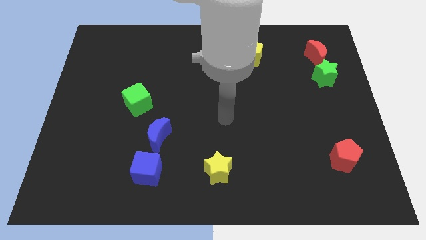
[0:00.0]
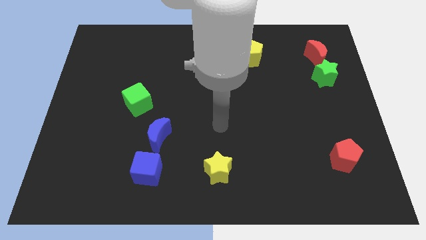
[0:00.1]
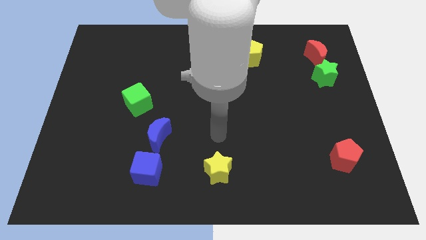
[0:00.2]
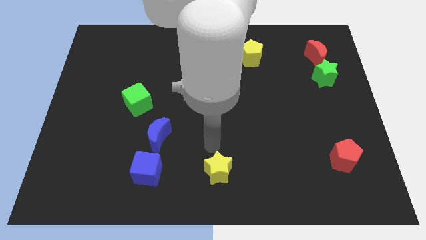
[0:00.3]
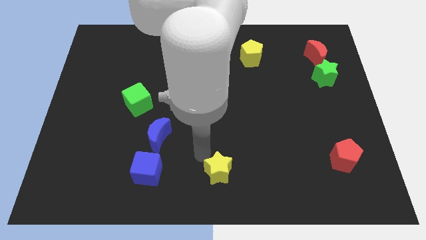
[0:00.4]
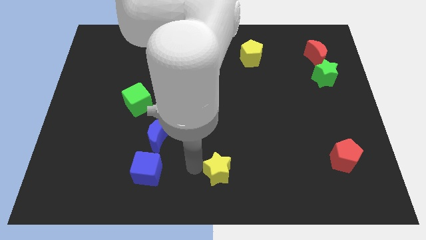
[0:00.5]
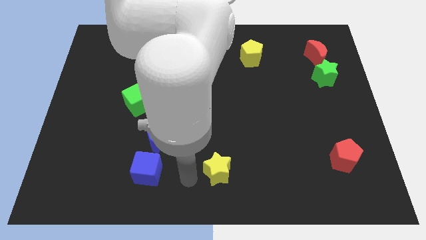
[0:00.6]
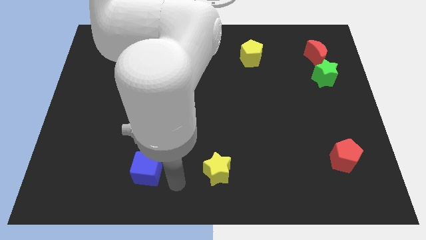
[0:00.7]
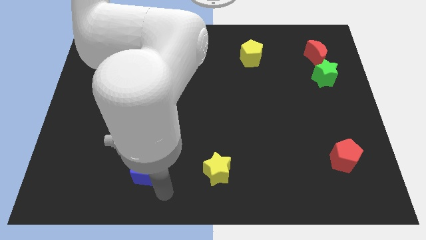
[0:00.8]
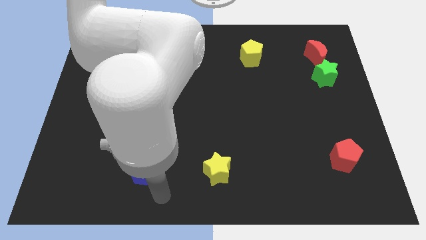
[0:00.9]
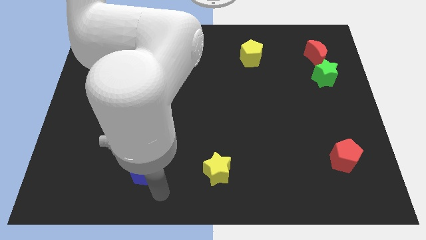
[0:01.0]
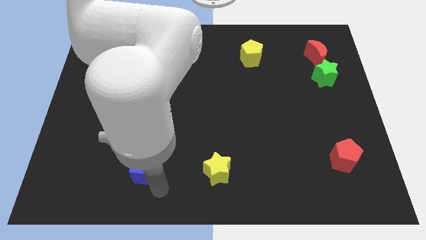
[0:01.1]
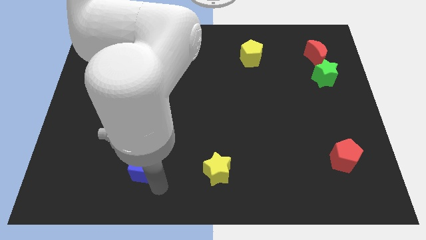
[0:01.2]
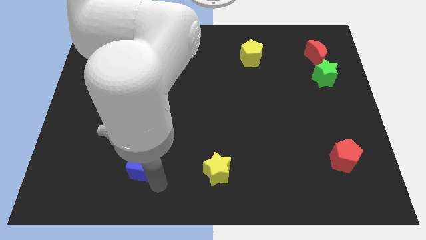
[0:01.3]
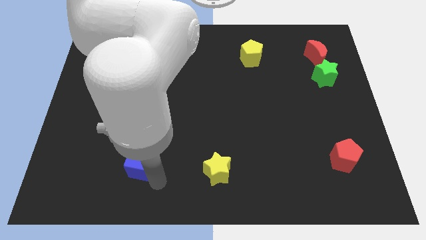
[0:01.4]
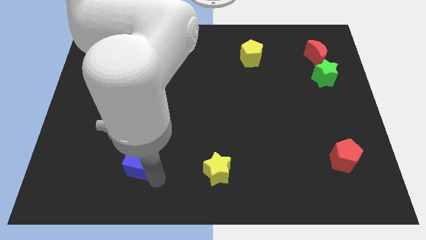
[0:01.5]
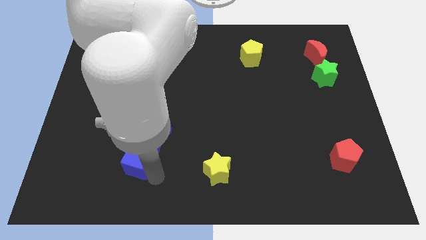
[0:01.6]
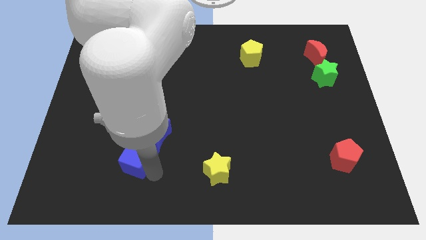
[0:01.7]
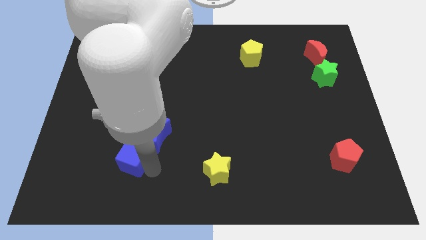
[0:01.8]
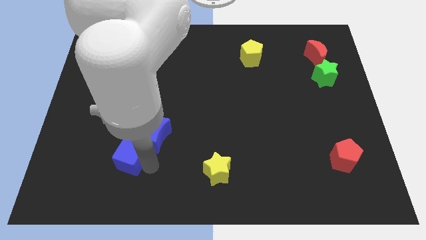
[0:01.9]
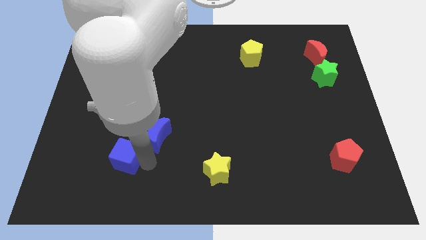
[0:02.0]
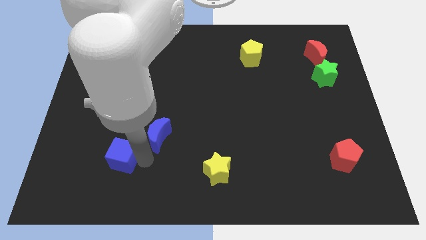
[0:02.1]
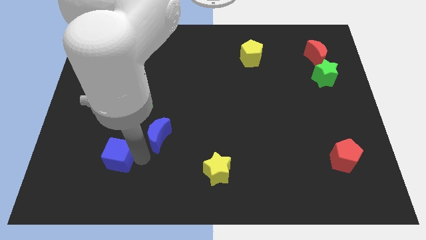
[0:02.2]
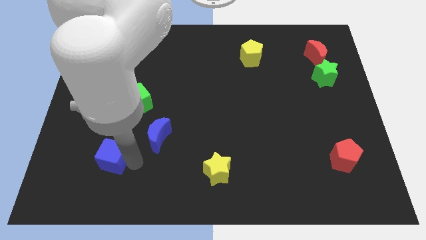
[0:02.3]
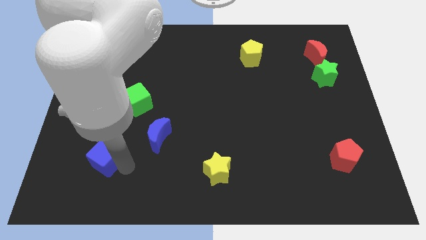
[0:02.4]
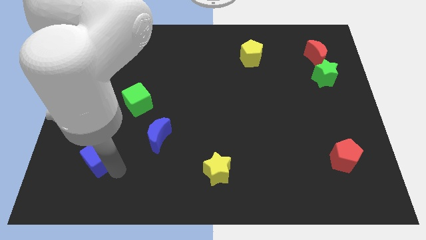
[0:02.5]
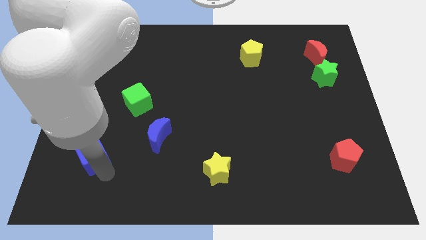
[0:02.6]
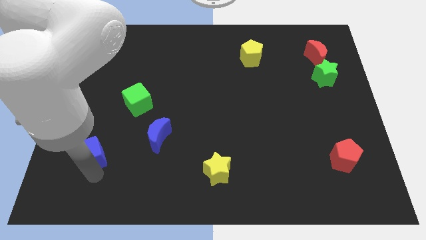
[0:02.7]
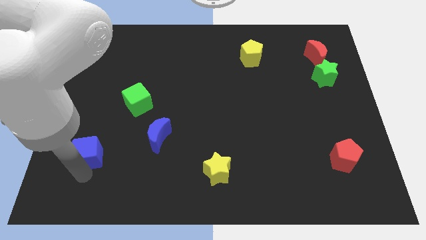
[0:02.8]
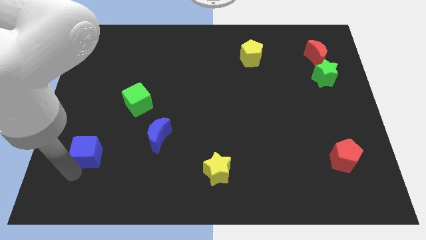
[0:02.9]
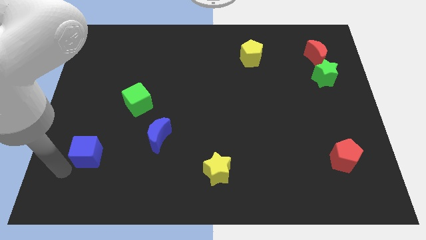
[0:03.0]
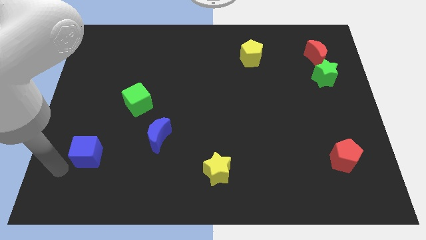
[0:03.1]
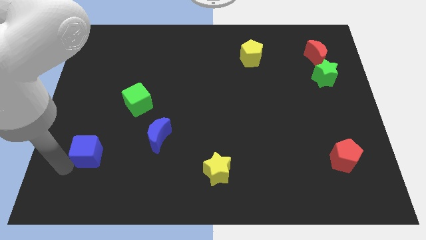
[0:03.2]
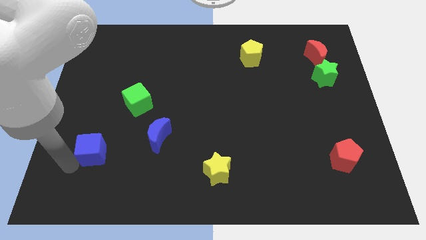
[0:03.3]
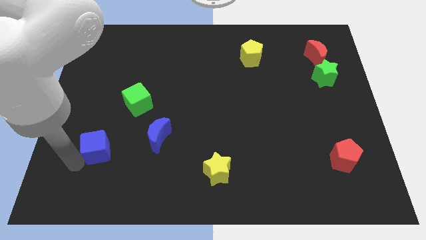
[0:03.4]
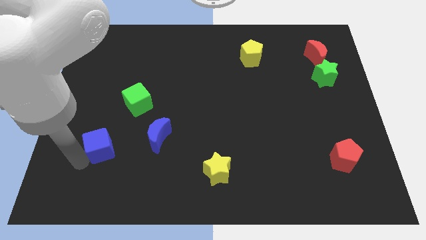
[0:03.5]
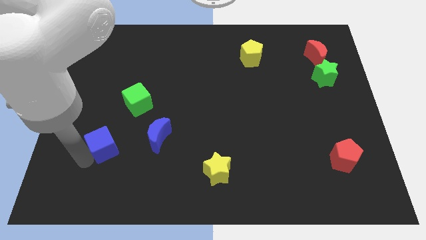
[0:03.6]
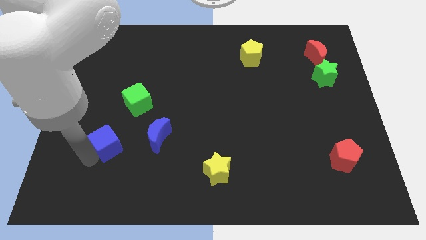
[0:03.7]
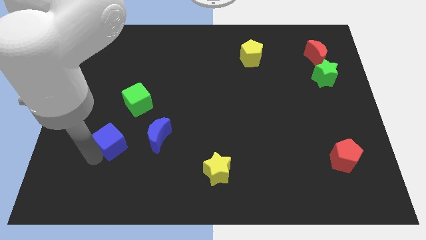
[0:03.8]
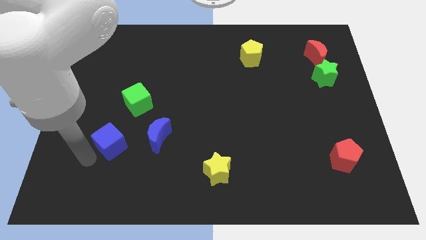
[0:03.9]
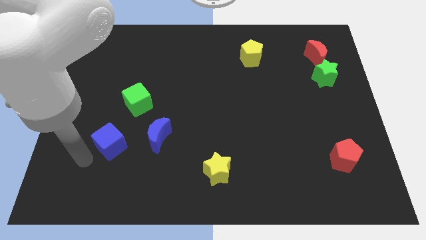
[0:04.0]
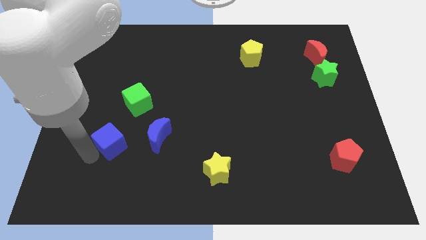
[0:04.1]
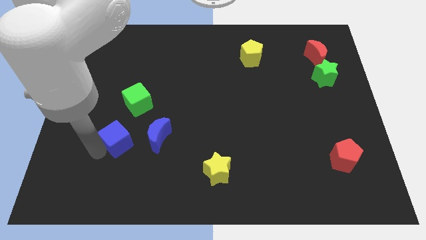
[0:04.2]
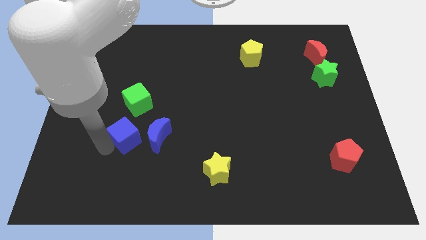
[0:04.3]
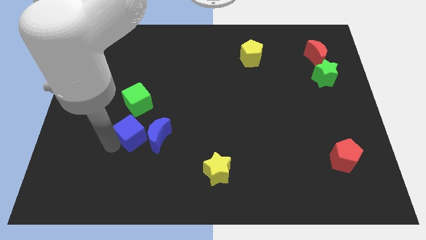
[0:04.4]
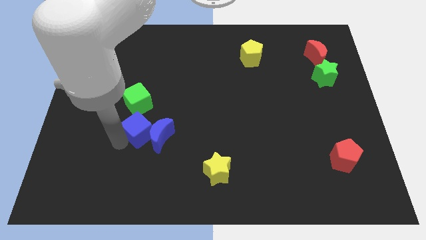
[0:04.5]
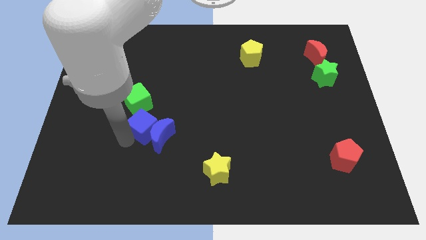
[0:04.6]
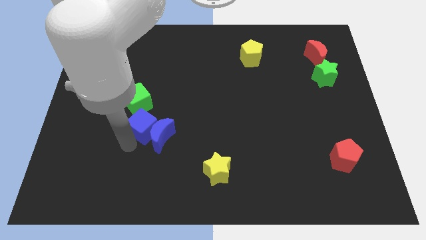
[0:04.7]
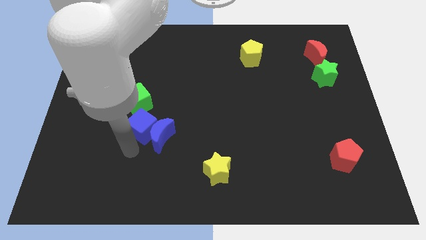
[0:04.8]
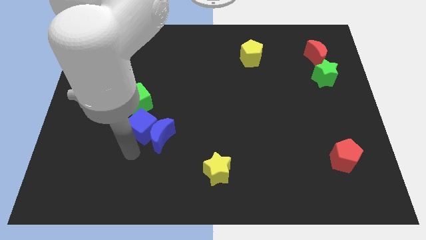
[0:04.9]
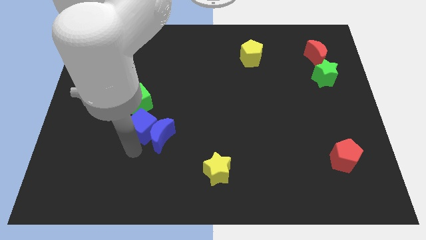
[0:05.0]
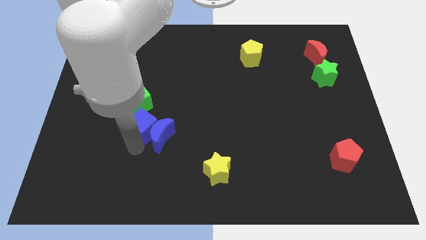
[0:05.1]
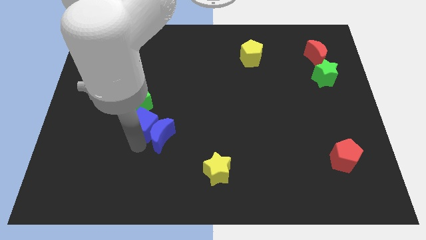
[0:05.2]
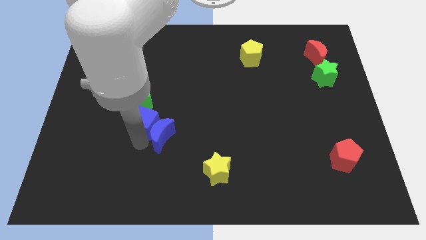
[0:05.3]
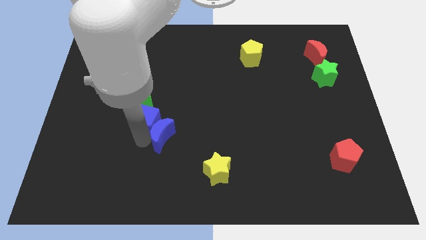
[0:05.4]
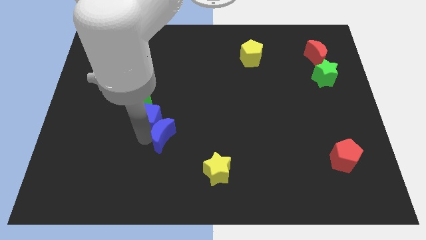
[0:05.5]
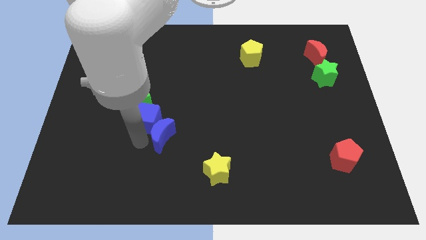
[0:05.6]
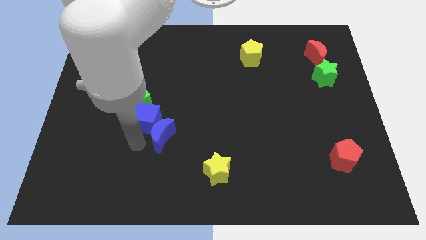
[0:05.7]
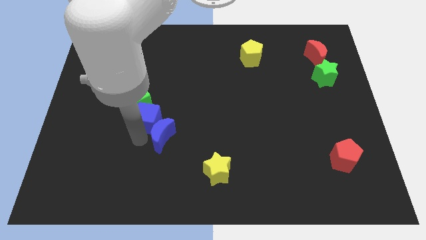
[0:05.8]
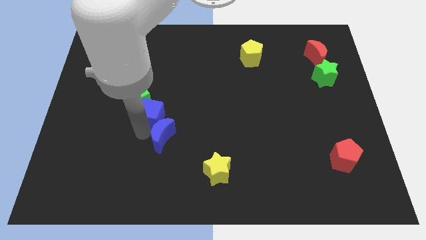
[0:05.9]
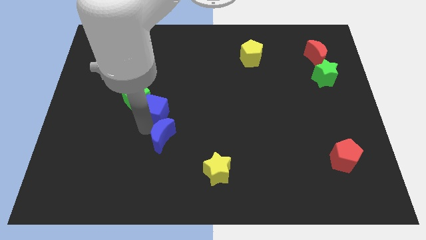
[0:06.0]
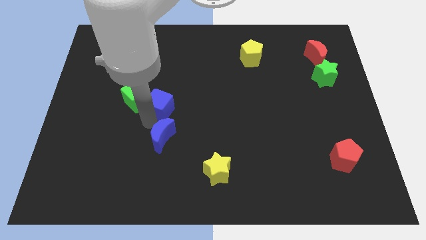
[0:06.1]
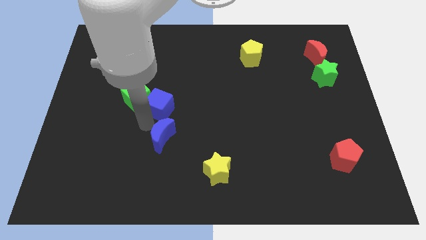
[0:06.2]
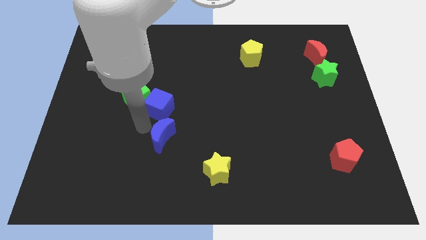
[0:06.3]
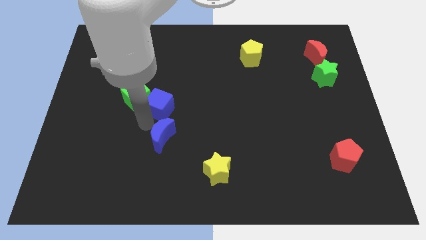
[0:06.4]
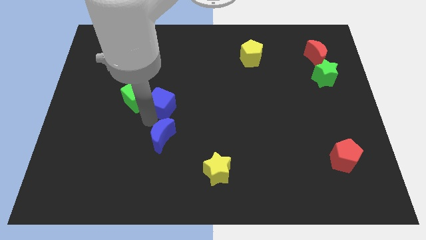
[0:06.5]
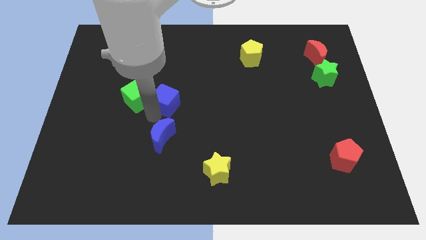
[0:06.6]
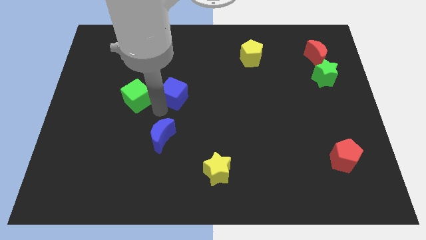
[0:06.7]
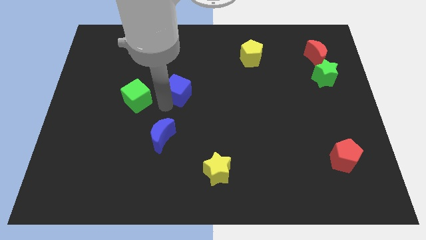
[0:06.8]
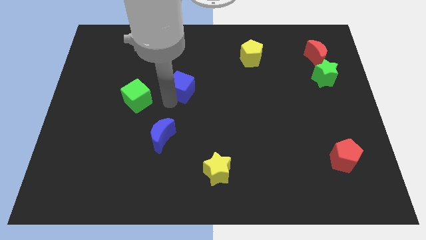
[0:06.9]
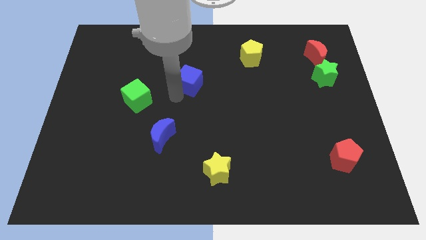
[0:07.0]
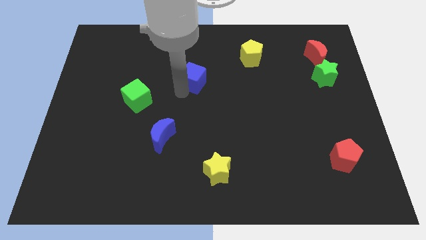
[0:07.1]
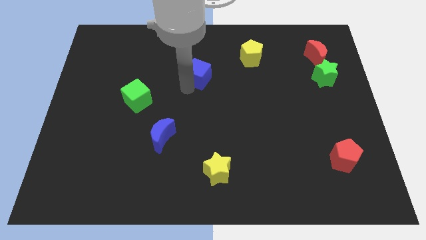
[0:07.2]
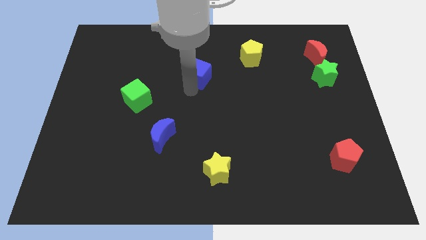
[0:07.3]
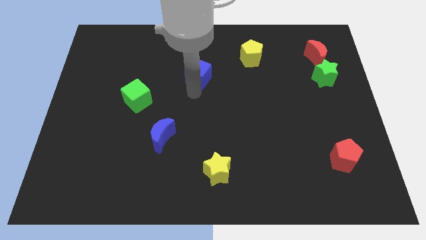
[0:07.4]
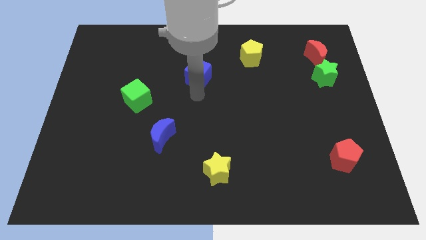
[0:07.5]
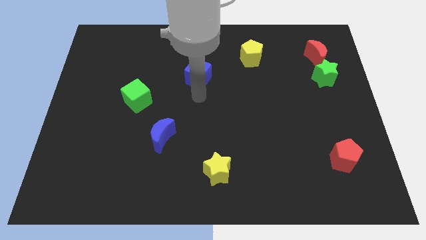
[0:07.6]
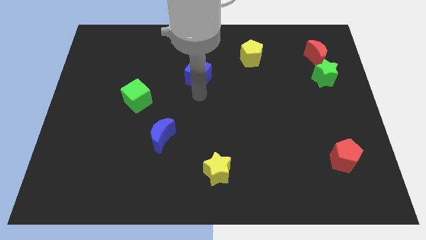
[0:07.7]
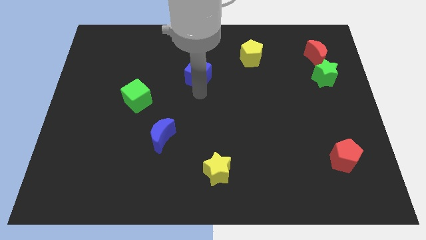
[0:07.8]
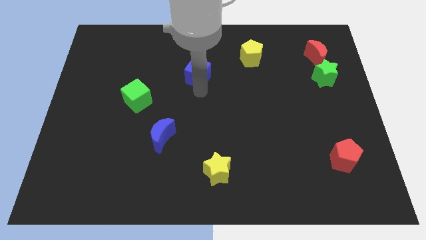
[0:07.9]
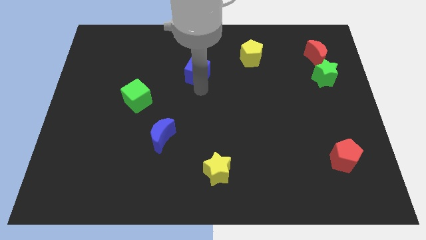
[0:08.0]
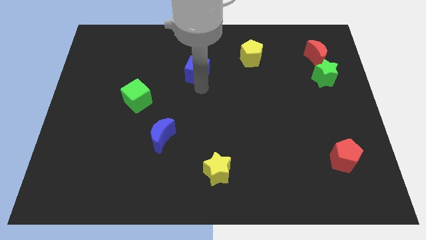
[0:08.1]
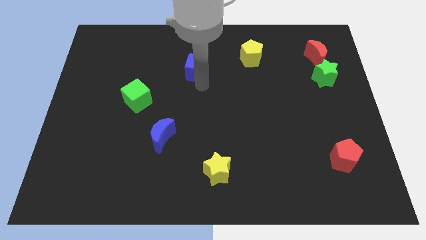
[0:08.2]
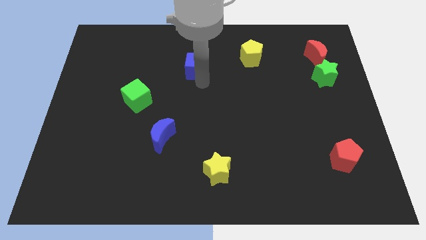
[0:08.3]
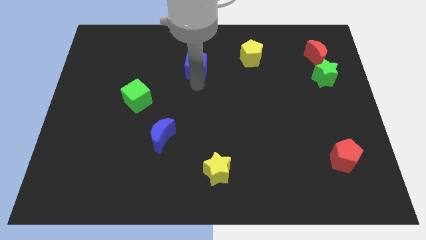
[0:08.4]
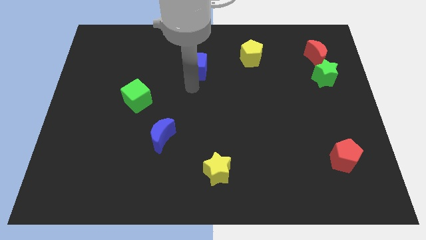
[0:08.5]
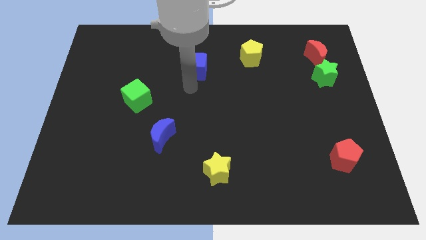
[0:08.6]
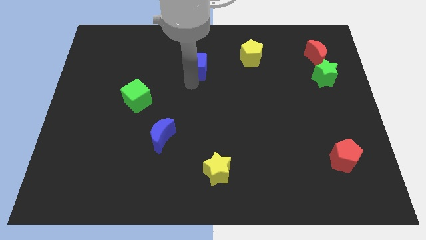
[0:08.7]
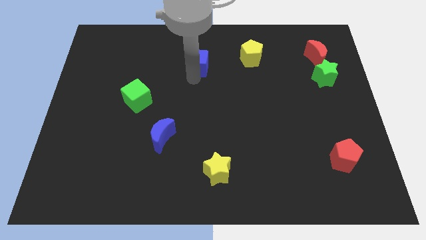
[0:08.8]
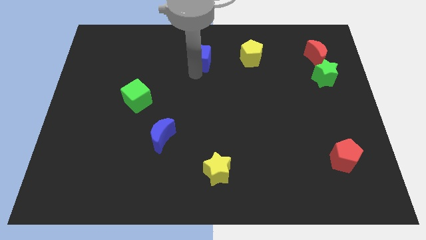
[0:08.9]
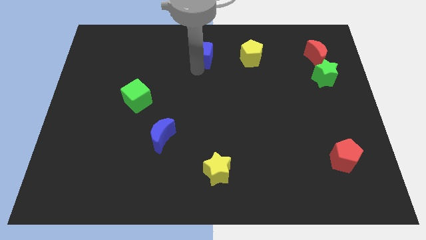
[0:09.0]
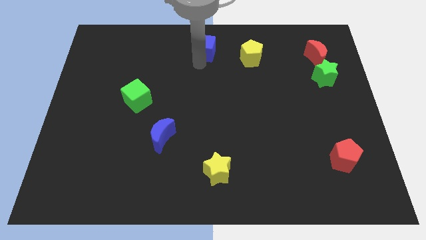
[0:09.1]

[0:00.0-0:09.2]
slide the blue cube to the towards your base
